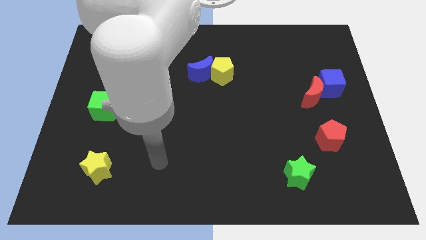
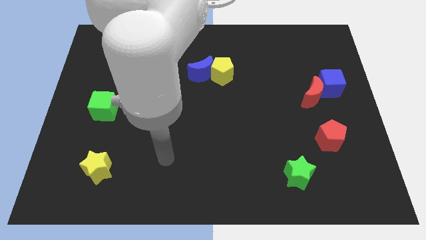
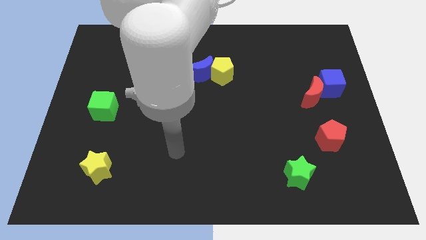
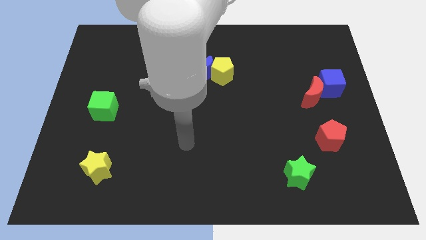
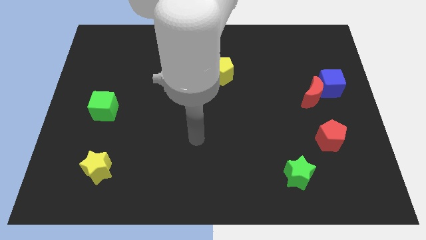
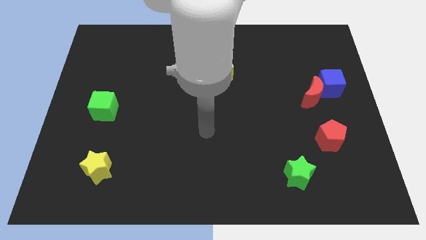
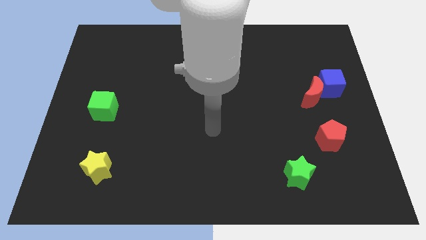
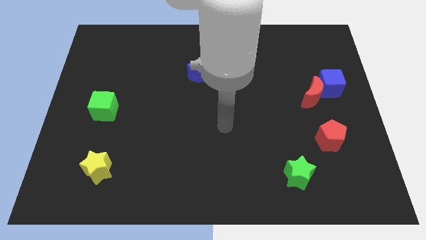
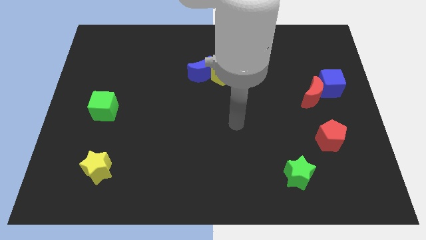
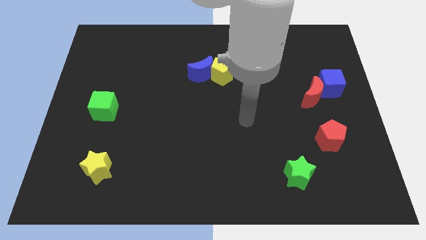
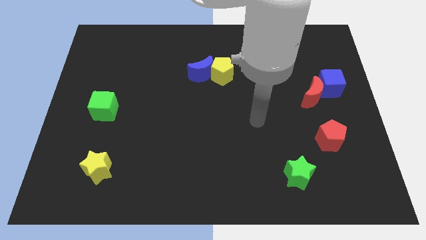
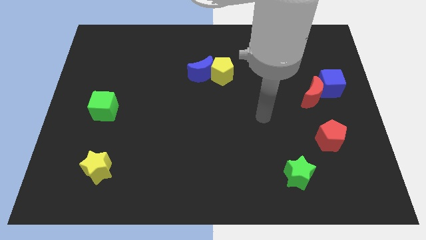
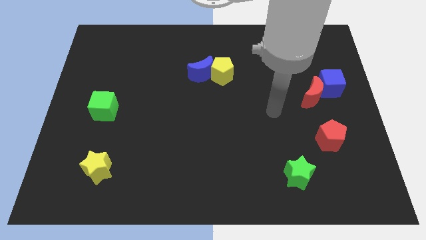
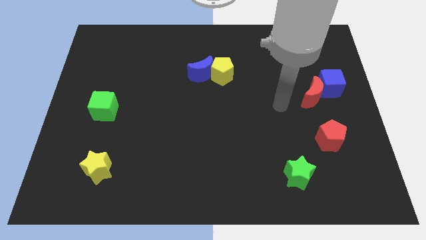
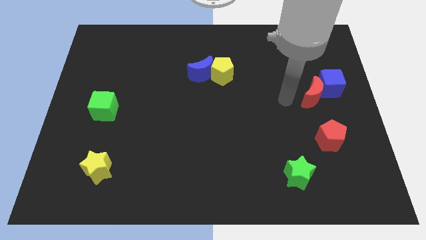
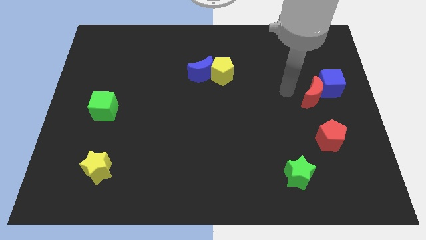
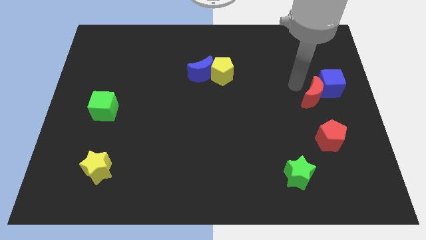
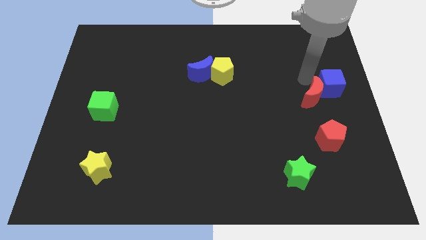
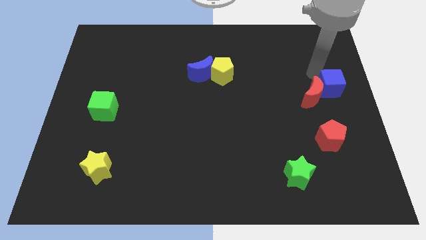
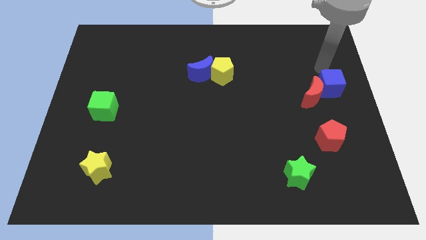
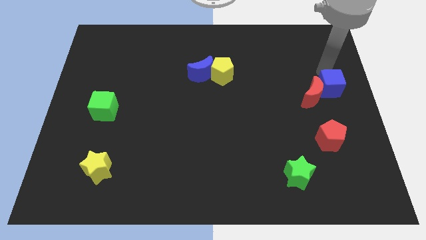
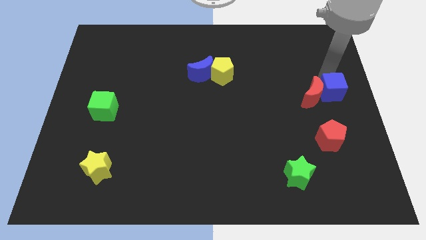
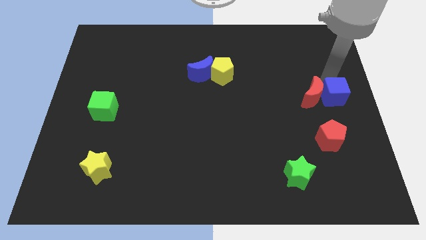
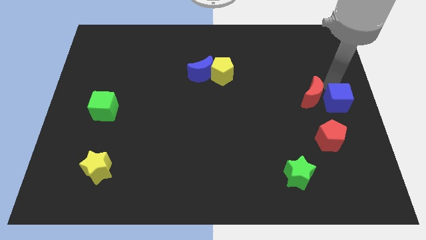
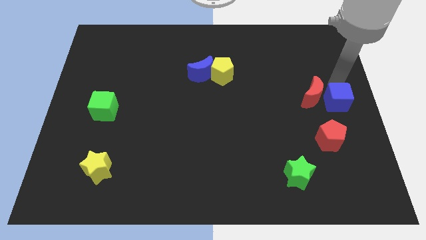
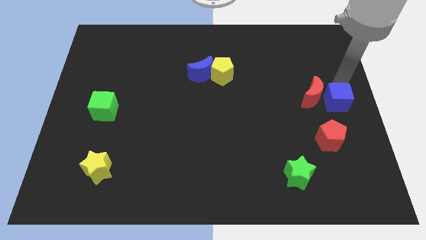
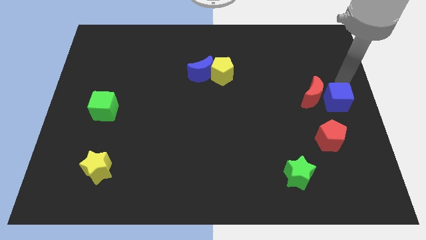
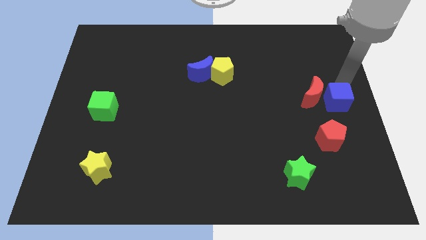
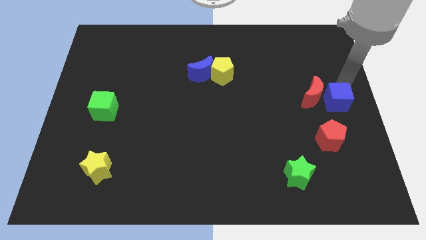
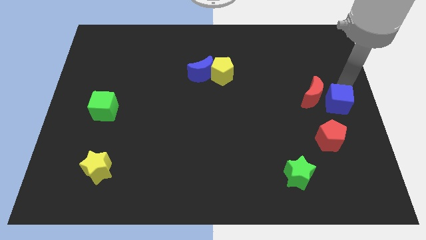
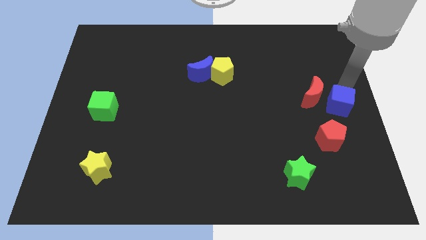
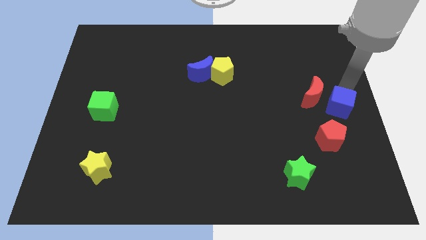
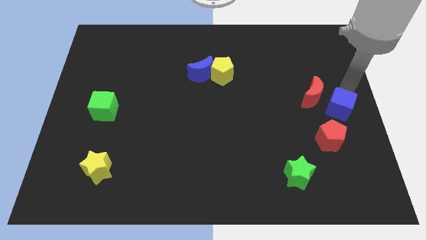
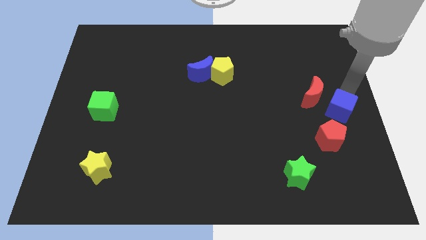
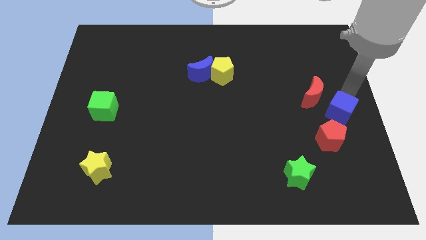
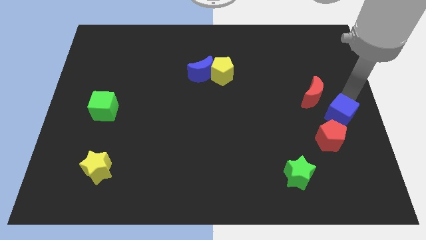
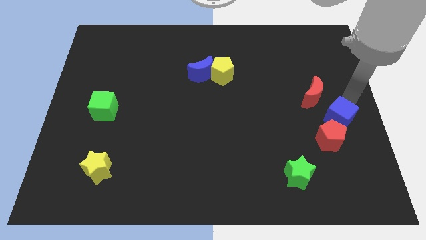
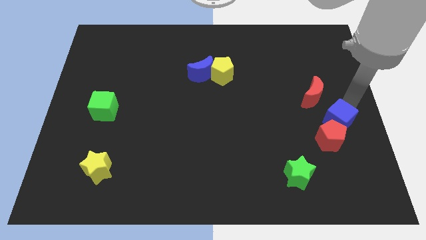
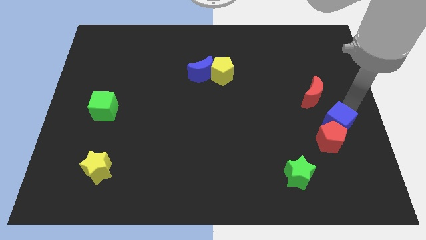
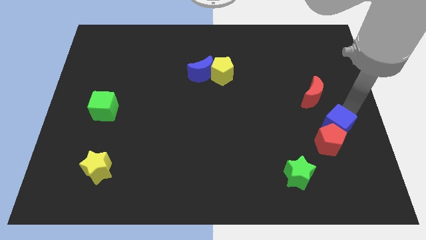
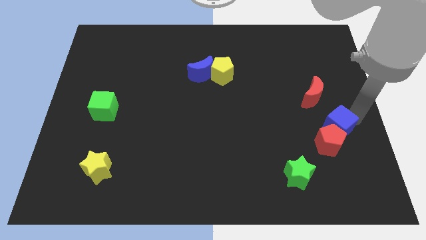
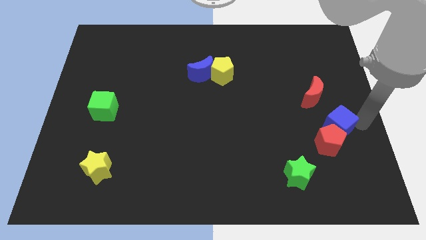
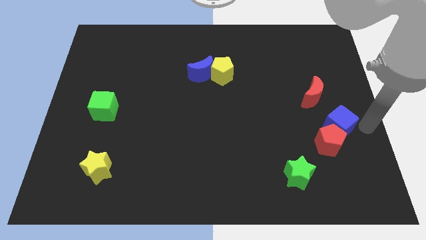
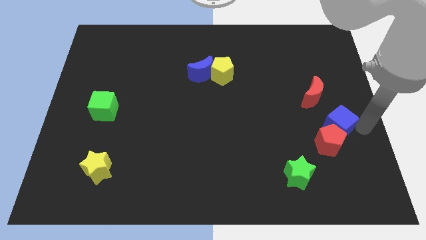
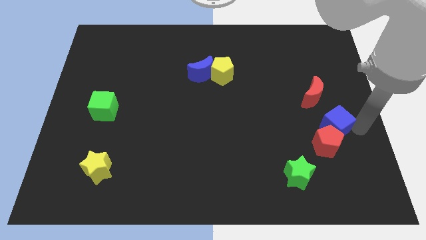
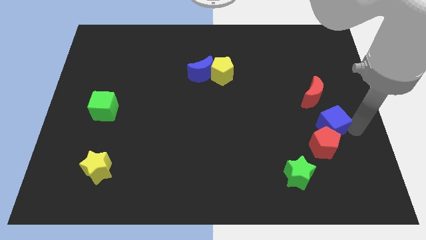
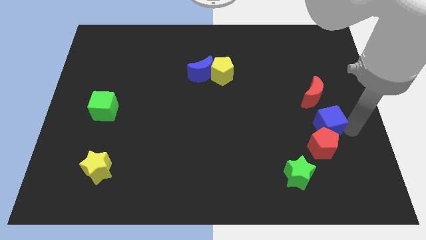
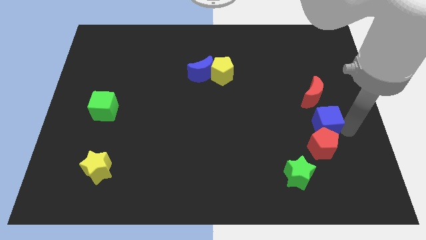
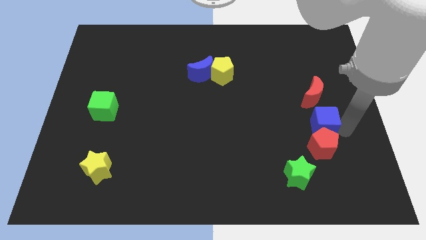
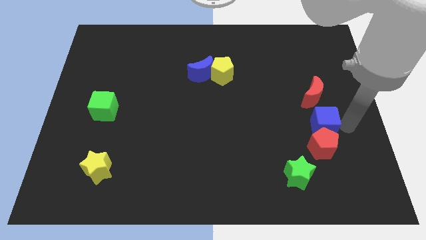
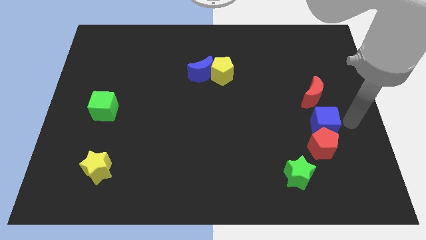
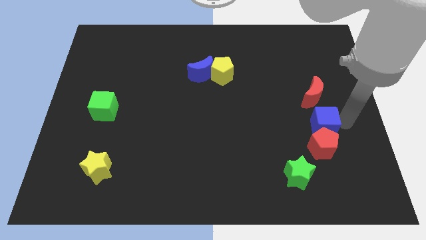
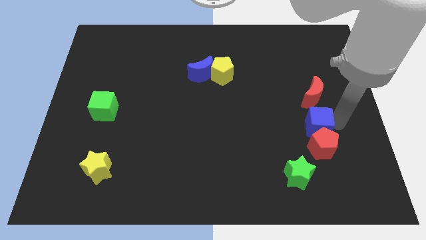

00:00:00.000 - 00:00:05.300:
put the blue cube to the top left of the red pentagon

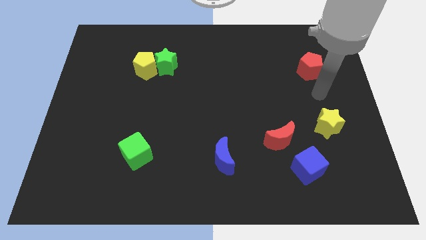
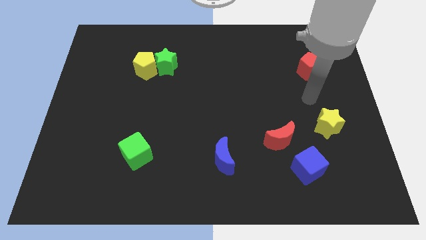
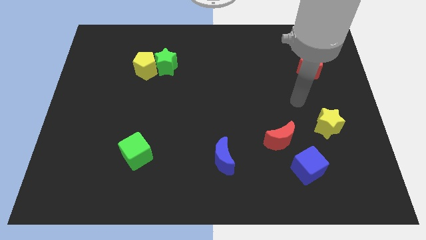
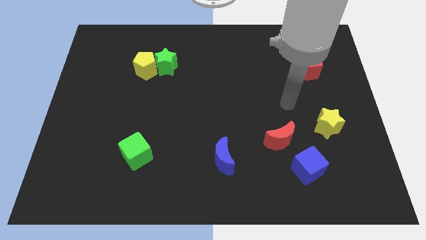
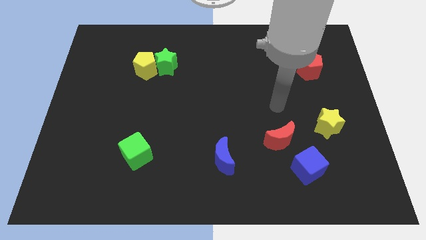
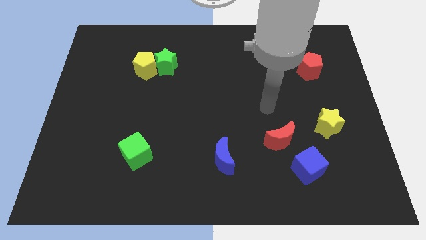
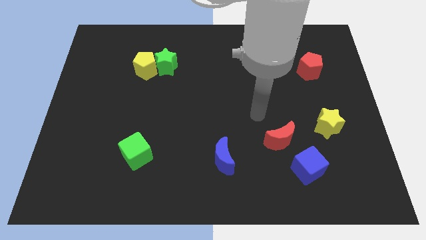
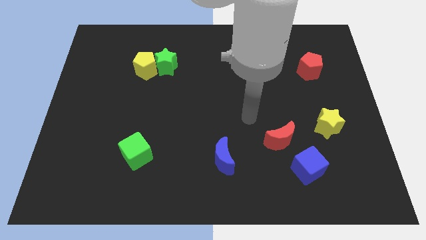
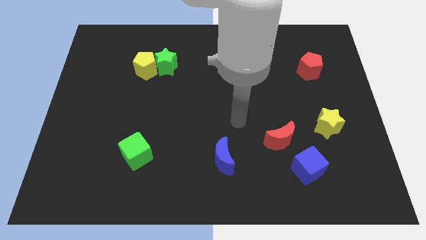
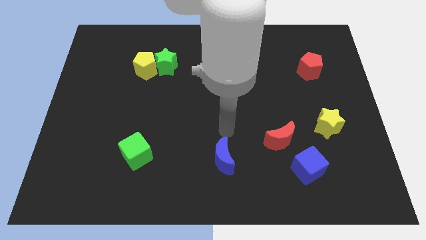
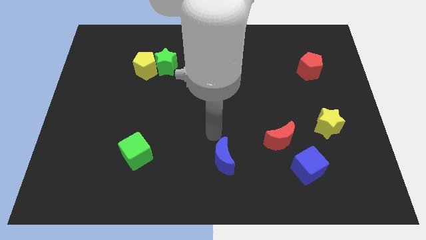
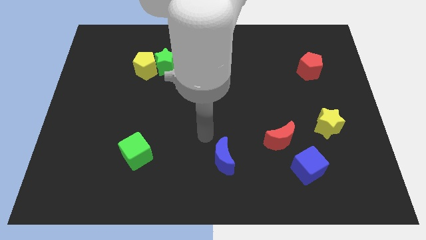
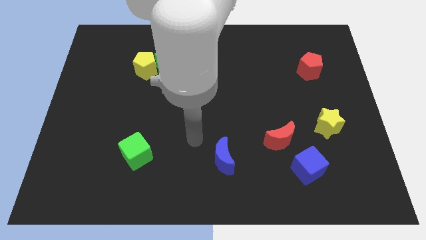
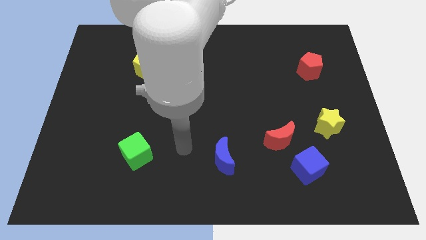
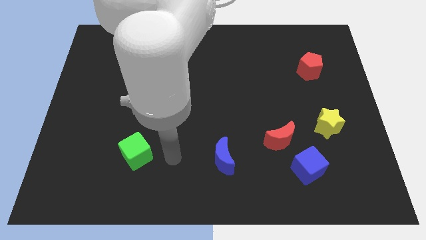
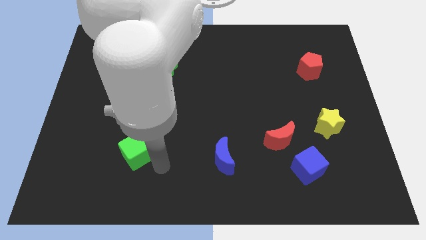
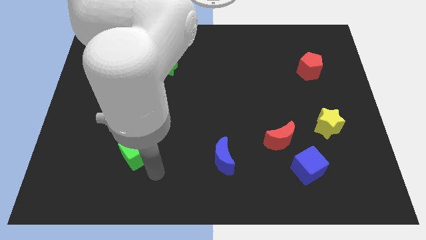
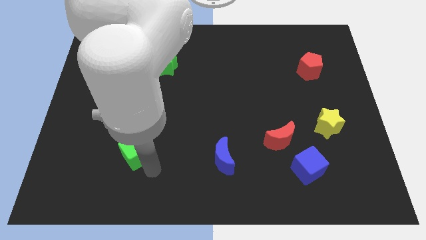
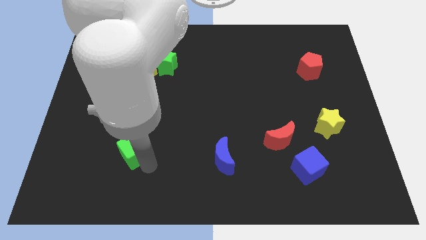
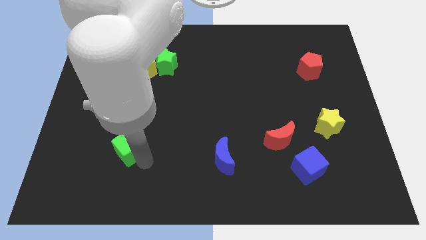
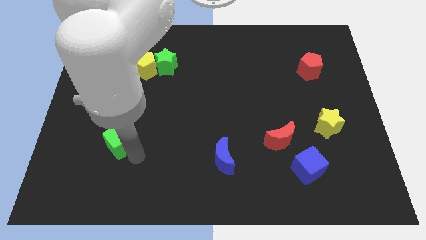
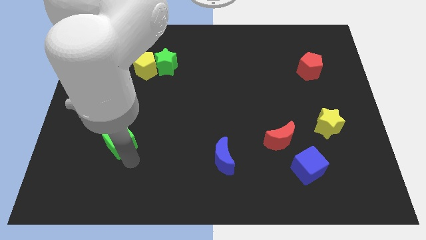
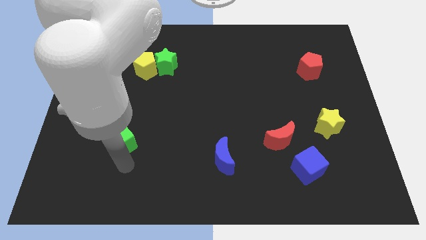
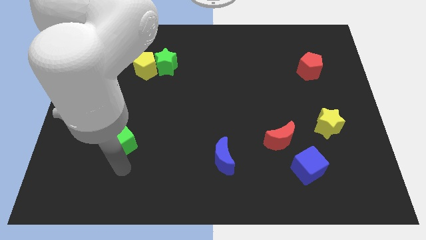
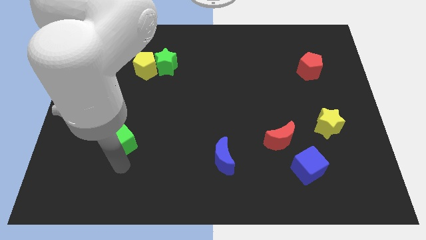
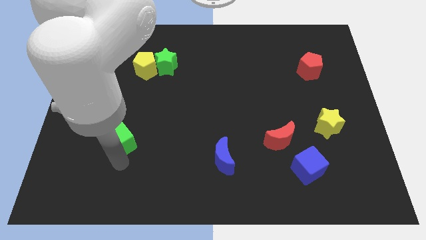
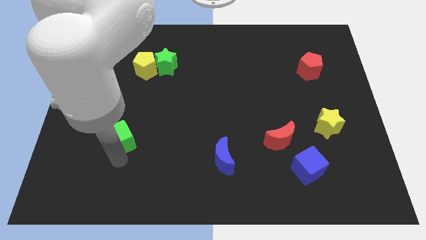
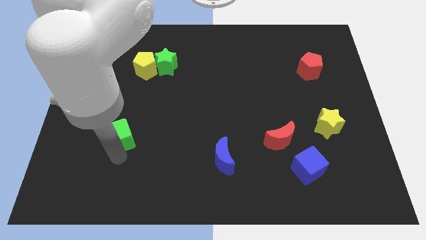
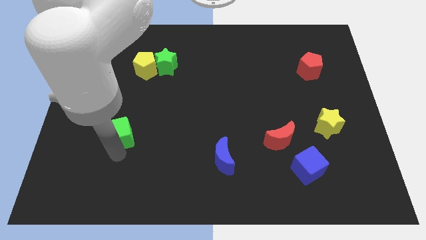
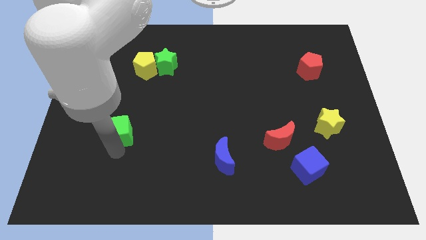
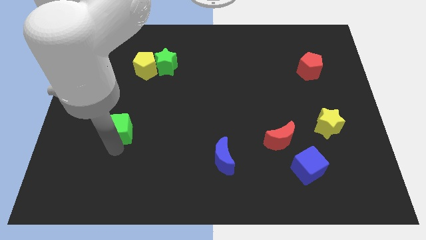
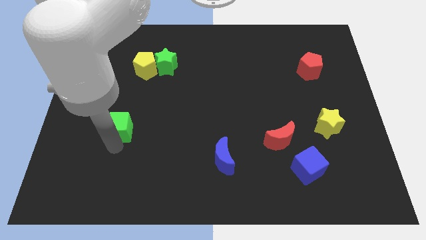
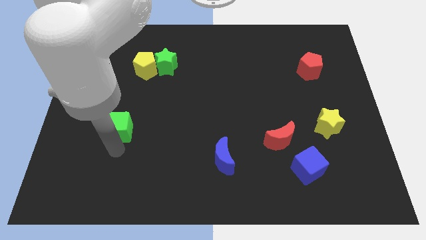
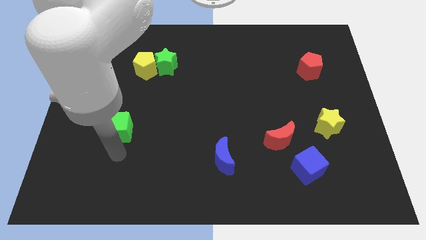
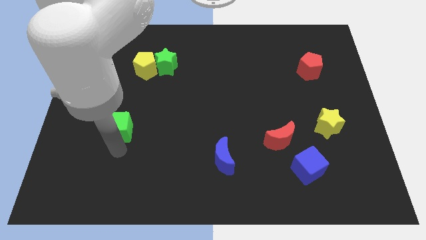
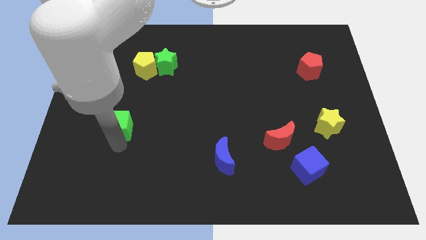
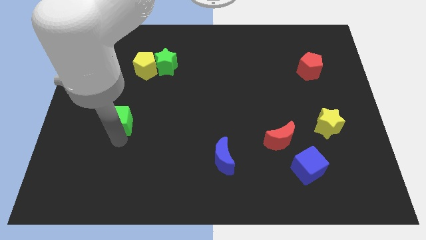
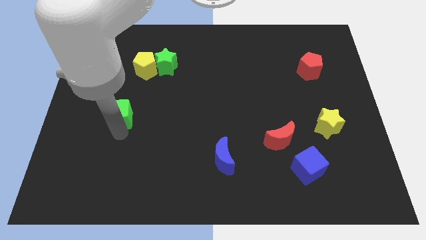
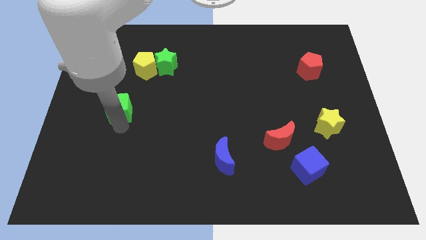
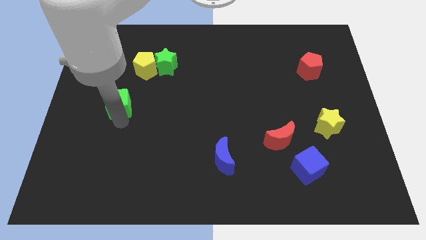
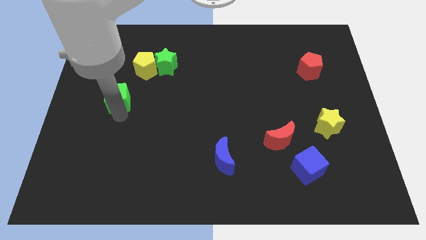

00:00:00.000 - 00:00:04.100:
slide the green cube to the bottom left of the yellow pentagon
